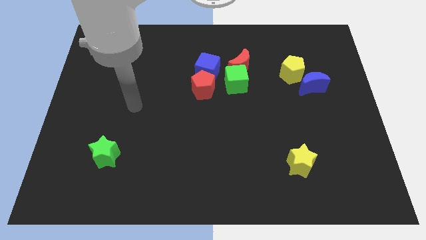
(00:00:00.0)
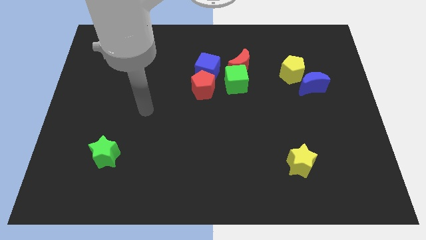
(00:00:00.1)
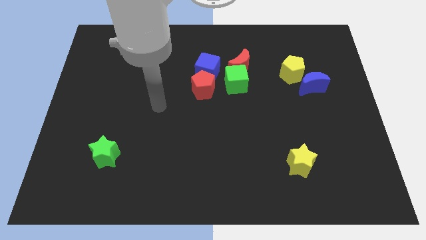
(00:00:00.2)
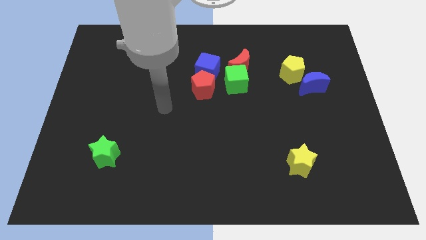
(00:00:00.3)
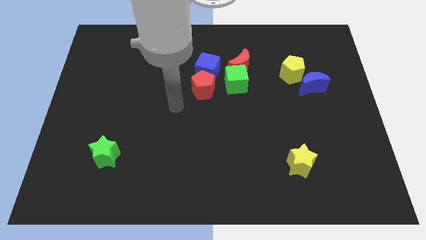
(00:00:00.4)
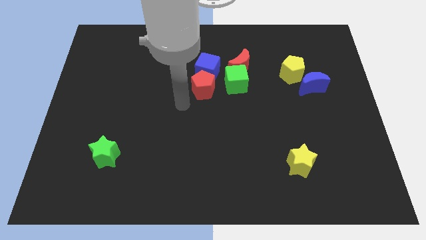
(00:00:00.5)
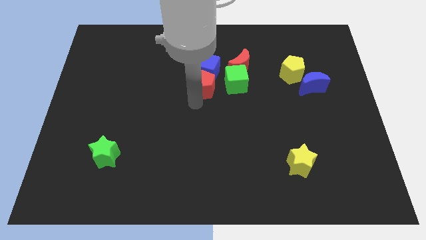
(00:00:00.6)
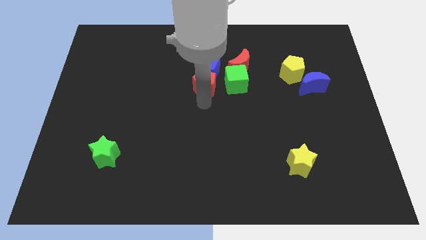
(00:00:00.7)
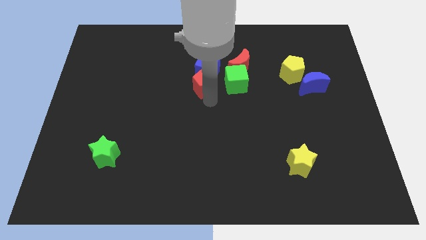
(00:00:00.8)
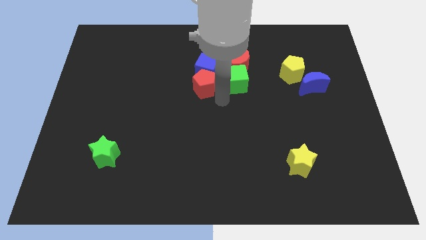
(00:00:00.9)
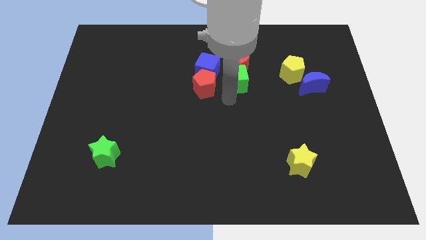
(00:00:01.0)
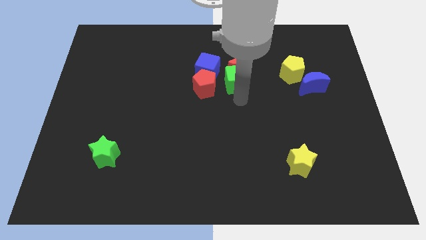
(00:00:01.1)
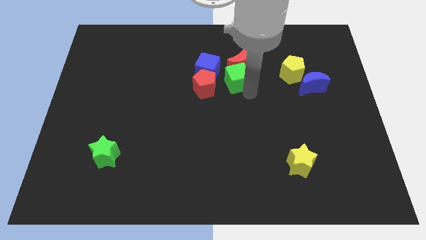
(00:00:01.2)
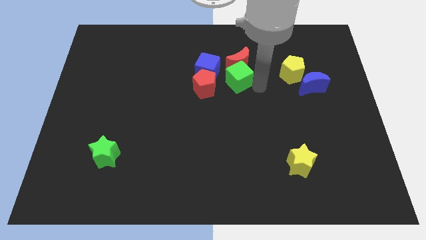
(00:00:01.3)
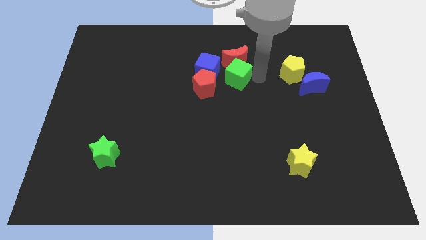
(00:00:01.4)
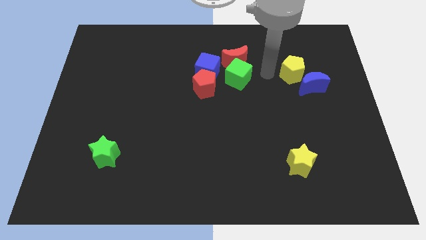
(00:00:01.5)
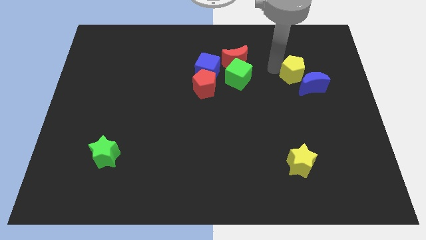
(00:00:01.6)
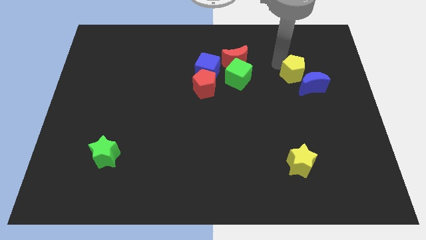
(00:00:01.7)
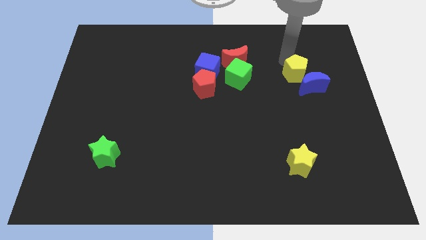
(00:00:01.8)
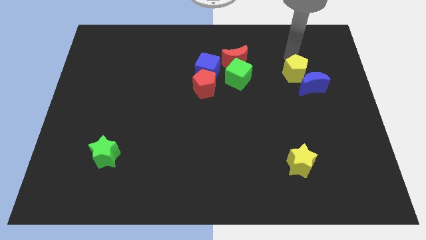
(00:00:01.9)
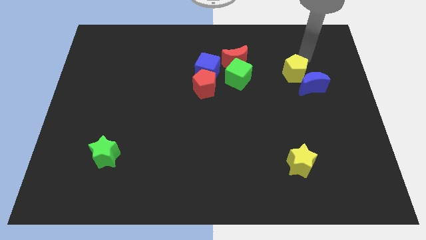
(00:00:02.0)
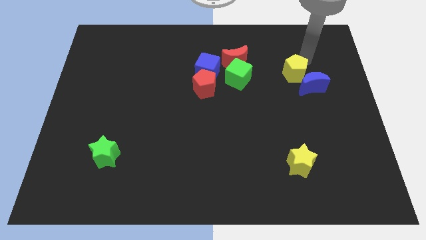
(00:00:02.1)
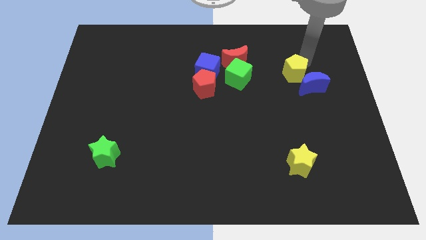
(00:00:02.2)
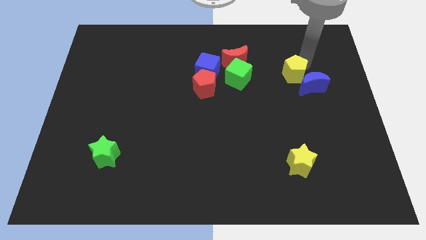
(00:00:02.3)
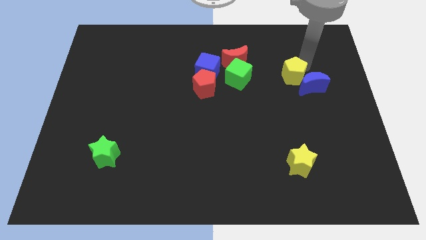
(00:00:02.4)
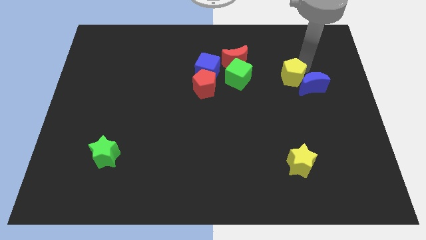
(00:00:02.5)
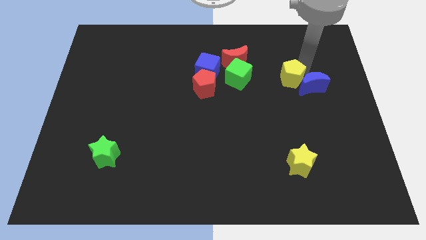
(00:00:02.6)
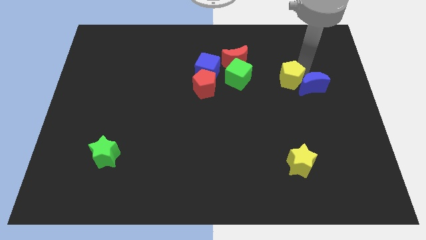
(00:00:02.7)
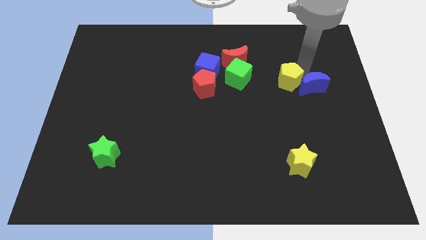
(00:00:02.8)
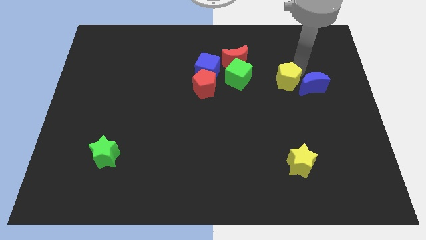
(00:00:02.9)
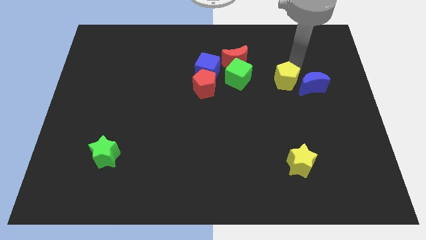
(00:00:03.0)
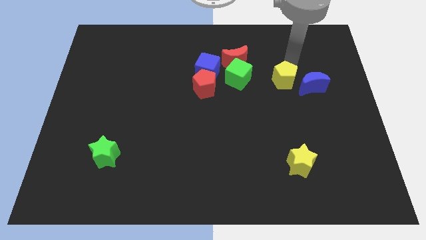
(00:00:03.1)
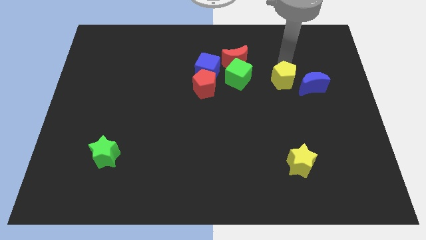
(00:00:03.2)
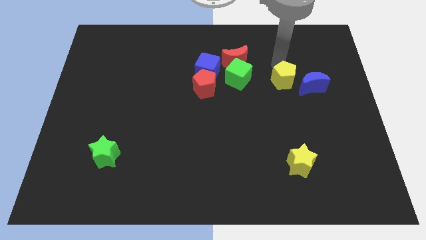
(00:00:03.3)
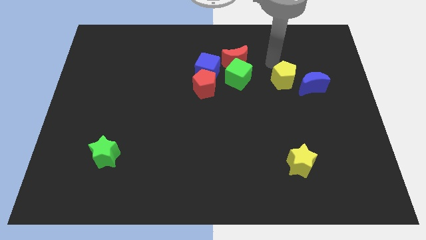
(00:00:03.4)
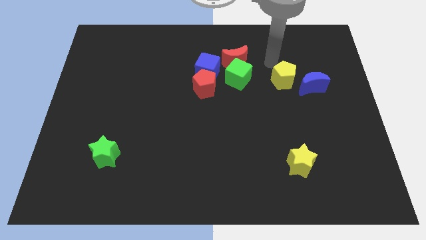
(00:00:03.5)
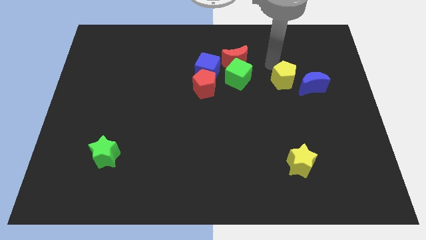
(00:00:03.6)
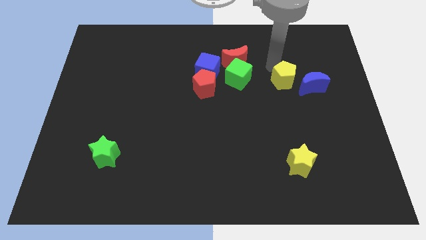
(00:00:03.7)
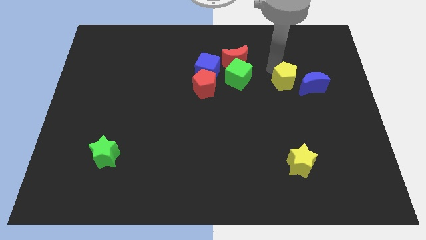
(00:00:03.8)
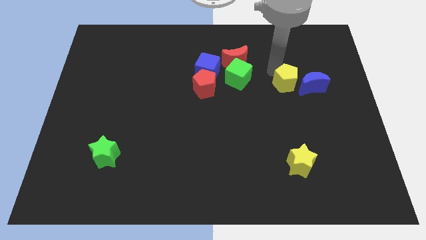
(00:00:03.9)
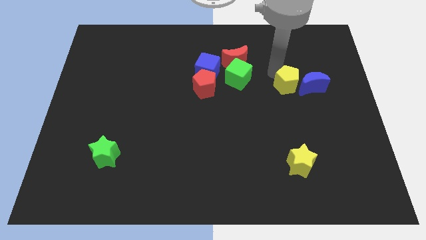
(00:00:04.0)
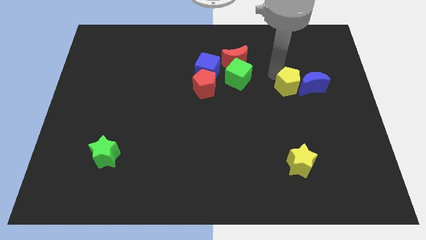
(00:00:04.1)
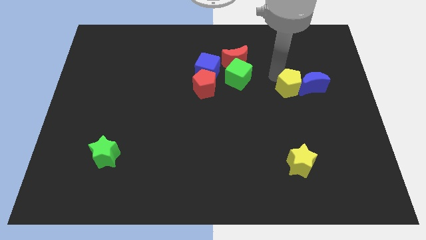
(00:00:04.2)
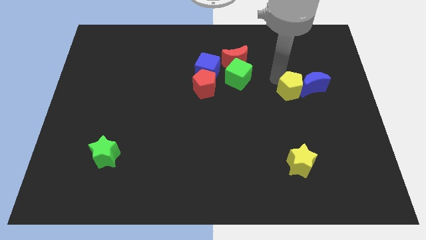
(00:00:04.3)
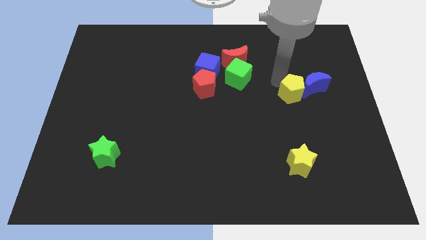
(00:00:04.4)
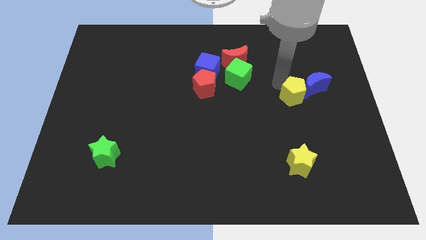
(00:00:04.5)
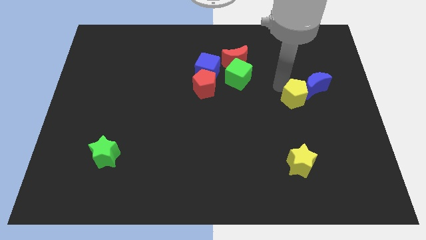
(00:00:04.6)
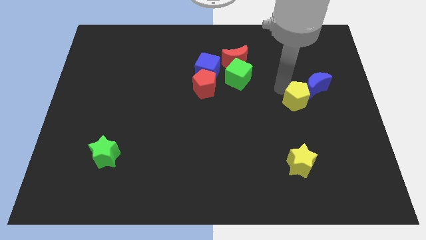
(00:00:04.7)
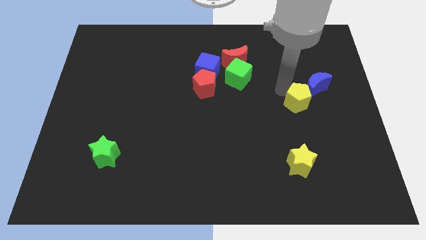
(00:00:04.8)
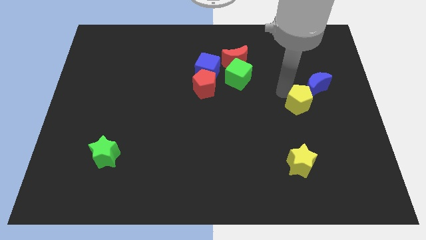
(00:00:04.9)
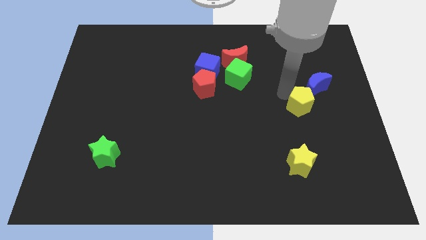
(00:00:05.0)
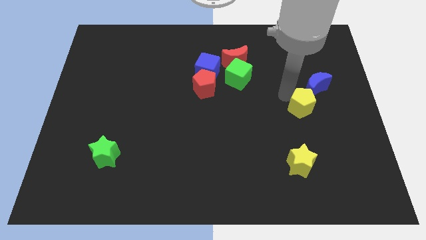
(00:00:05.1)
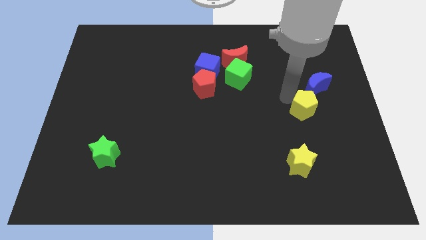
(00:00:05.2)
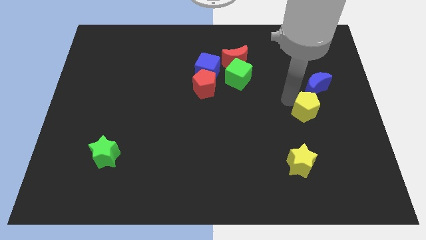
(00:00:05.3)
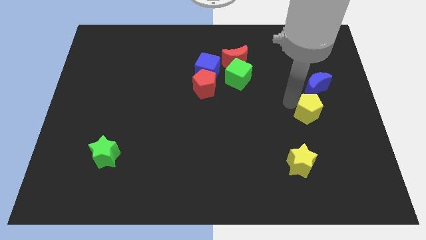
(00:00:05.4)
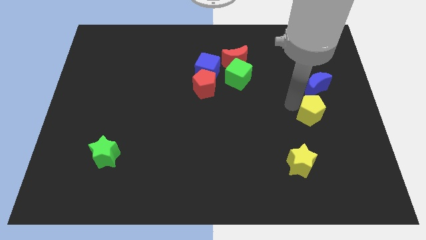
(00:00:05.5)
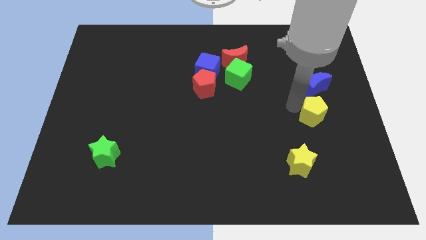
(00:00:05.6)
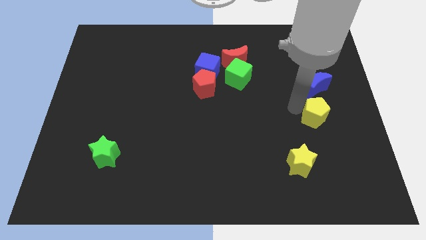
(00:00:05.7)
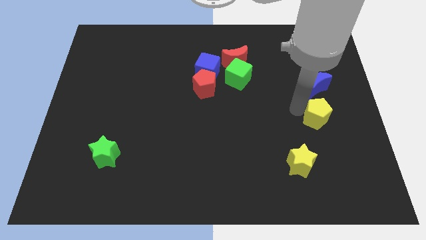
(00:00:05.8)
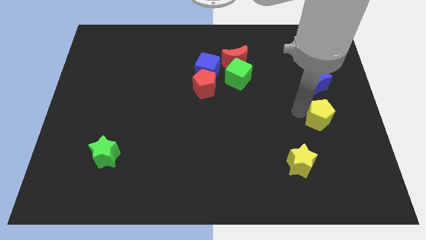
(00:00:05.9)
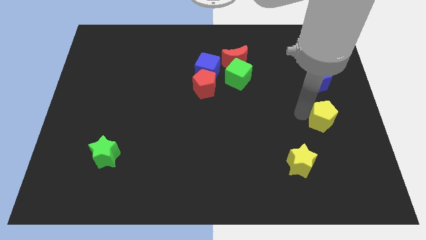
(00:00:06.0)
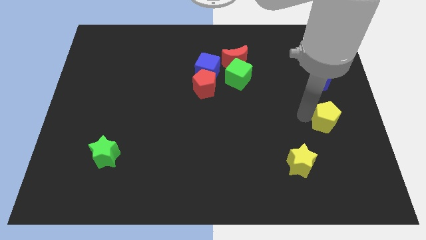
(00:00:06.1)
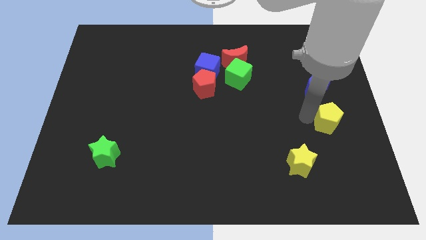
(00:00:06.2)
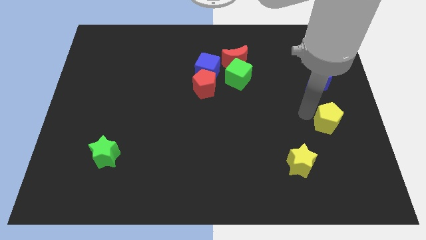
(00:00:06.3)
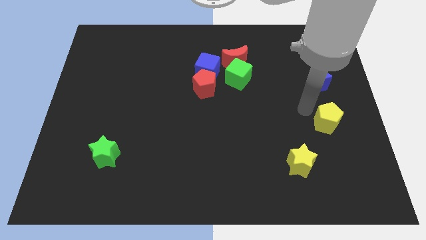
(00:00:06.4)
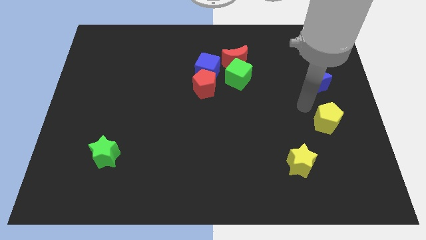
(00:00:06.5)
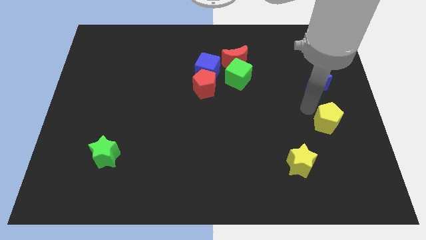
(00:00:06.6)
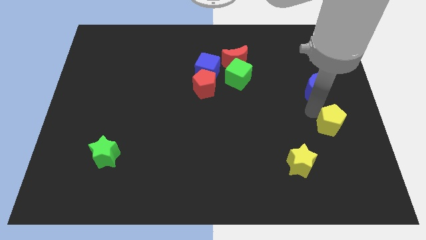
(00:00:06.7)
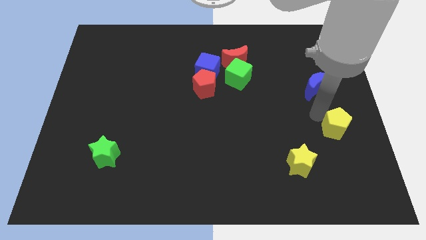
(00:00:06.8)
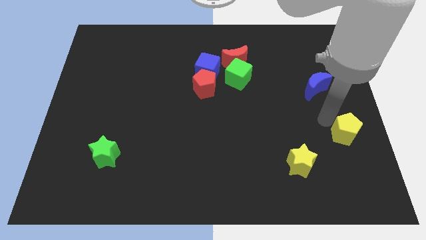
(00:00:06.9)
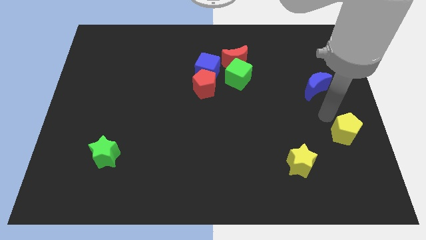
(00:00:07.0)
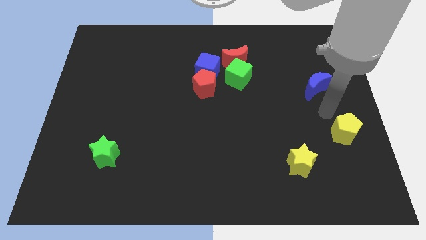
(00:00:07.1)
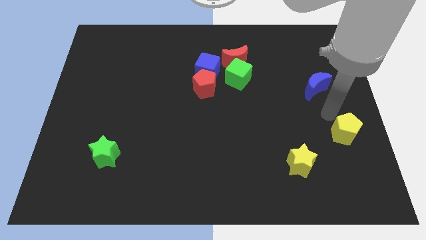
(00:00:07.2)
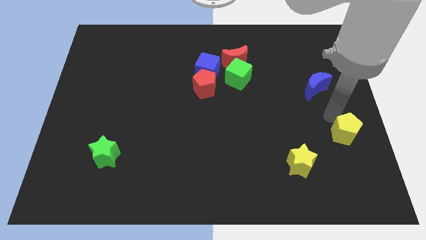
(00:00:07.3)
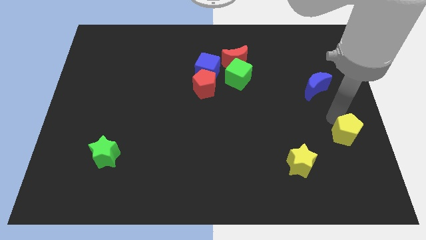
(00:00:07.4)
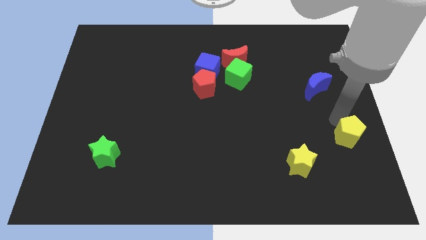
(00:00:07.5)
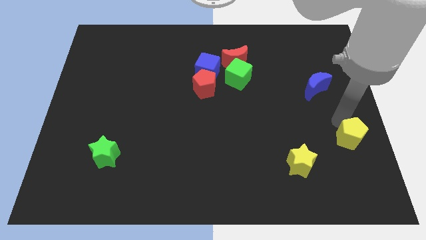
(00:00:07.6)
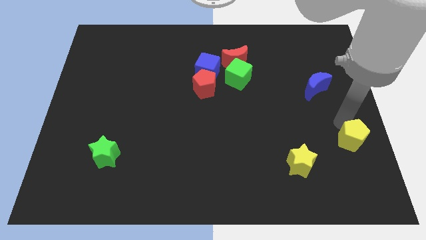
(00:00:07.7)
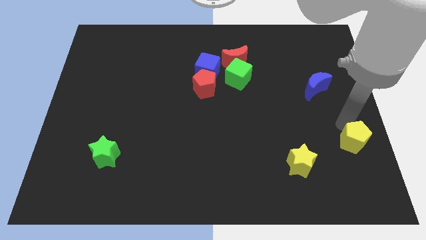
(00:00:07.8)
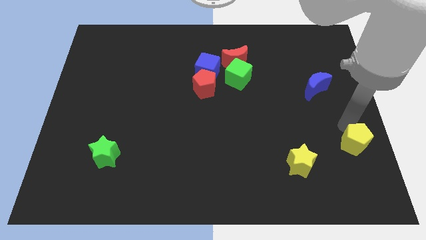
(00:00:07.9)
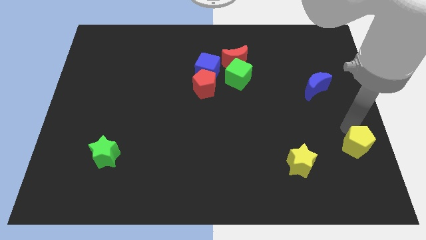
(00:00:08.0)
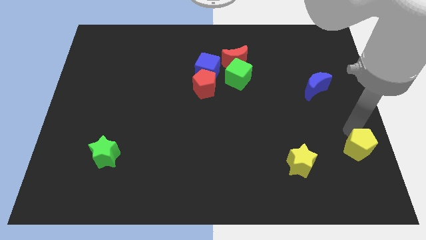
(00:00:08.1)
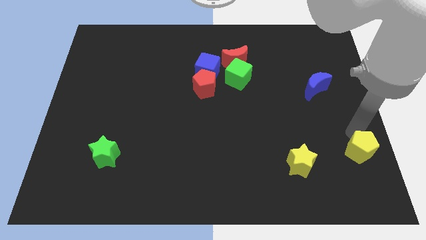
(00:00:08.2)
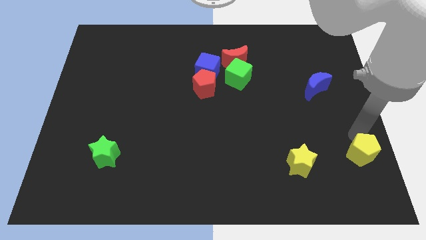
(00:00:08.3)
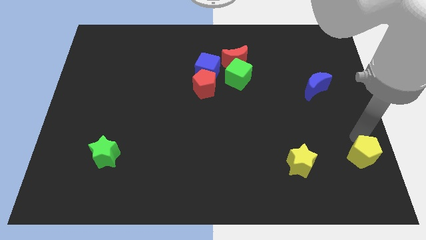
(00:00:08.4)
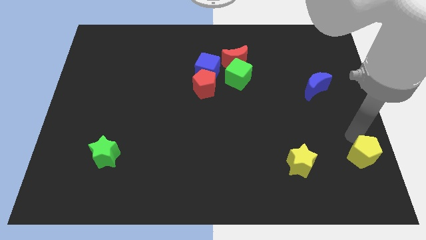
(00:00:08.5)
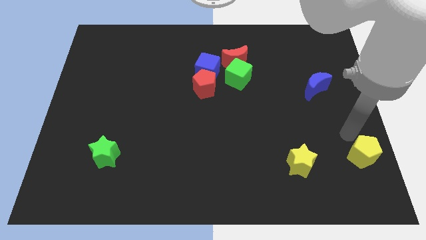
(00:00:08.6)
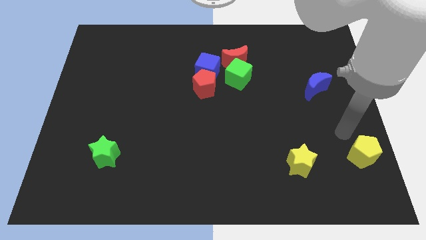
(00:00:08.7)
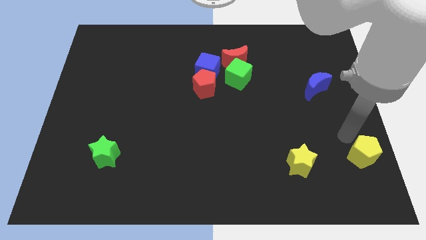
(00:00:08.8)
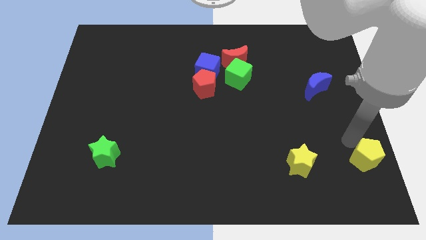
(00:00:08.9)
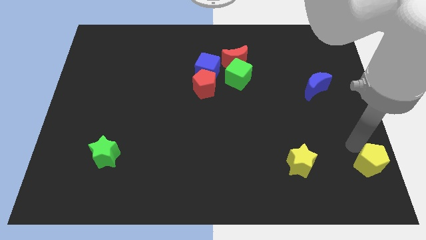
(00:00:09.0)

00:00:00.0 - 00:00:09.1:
push the yellow pentagon to the bottom right corner
